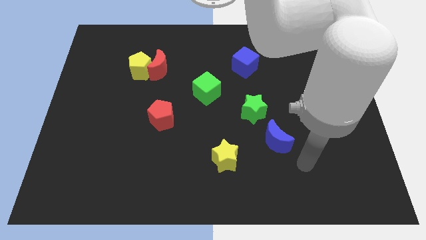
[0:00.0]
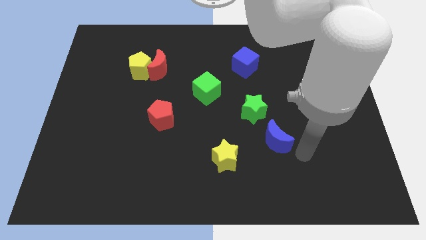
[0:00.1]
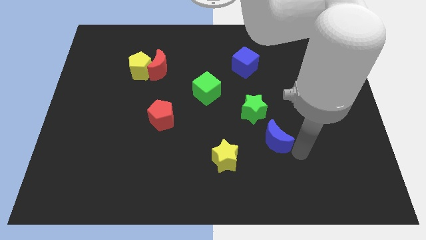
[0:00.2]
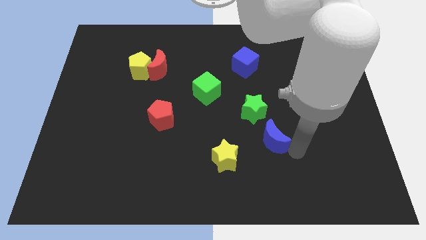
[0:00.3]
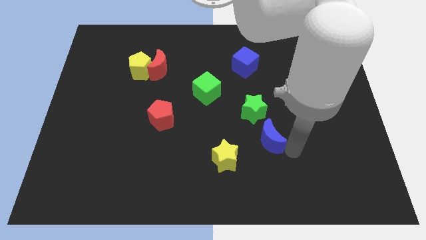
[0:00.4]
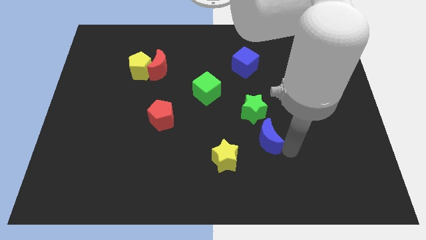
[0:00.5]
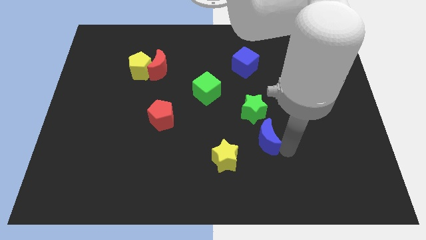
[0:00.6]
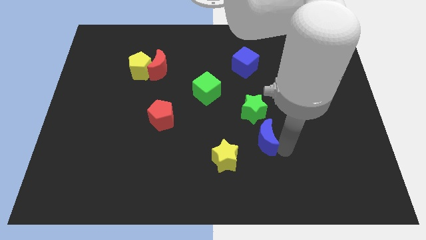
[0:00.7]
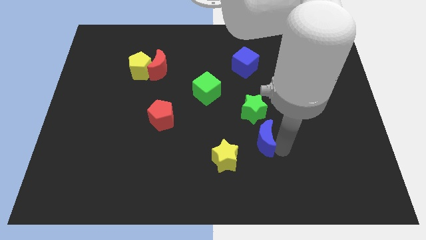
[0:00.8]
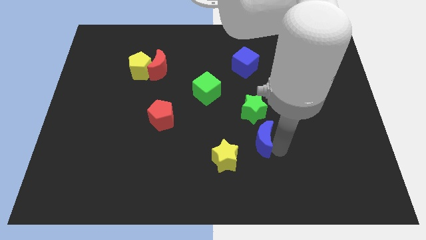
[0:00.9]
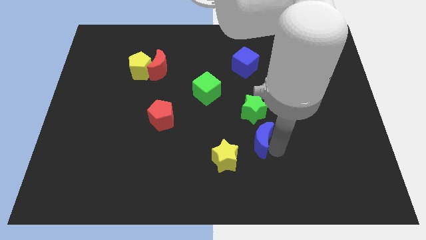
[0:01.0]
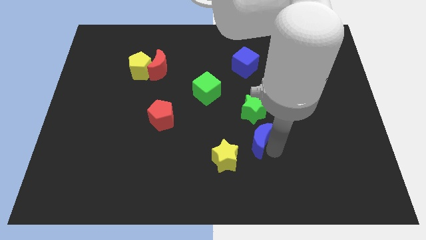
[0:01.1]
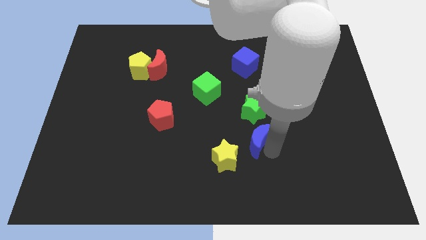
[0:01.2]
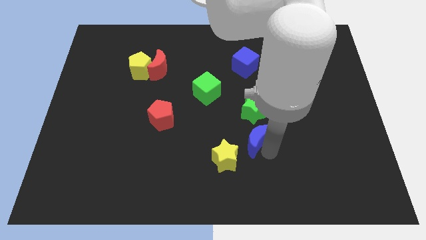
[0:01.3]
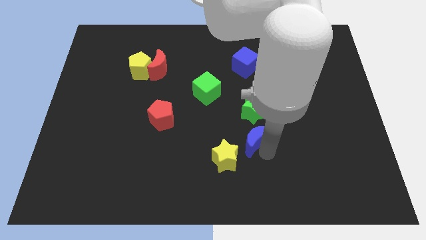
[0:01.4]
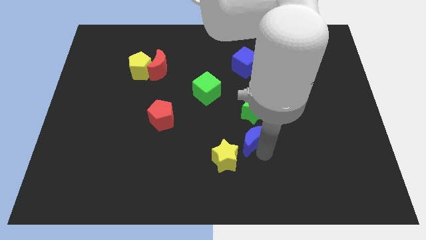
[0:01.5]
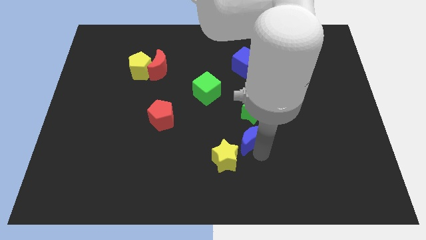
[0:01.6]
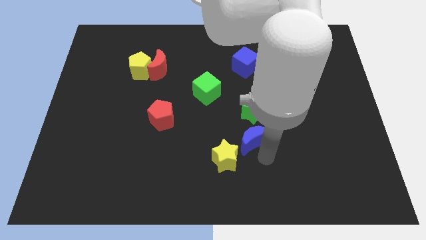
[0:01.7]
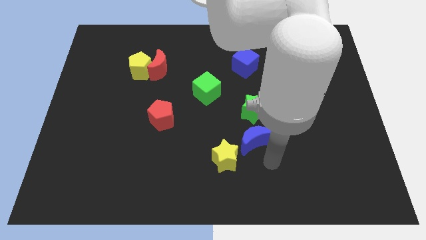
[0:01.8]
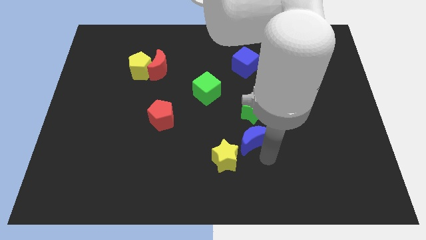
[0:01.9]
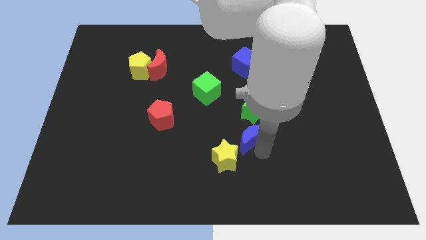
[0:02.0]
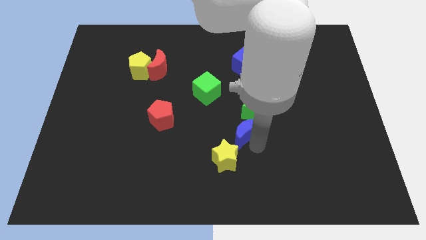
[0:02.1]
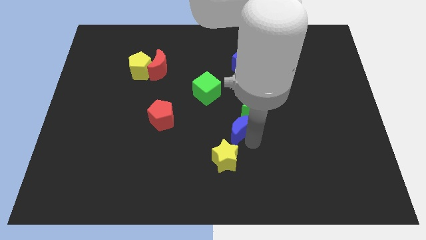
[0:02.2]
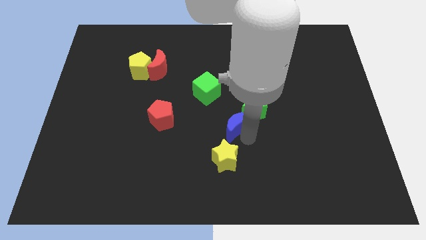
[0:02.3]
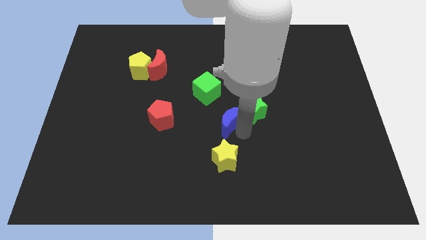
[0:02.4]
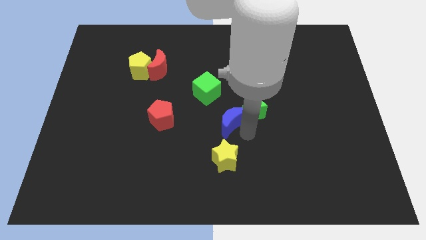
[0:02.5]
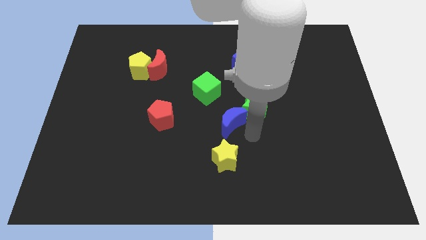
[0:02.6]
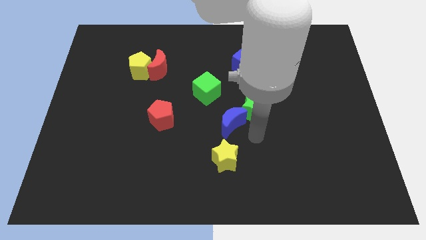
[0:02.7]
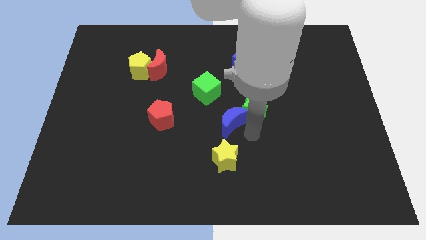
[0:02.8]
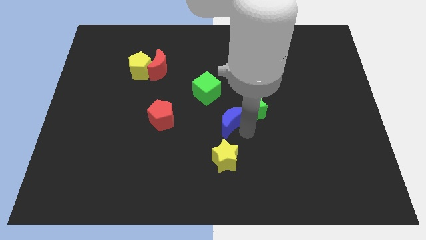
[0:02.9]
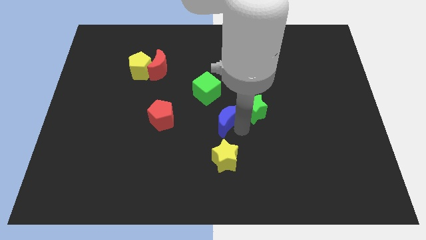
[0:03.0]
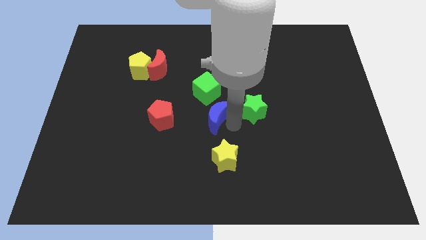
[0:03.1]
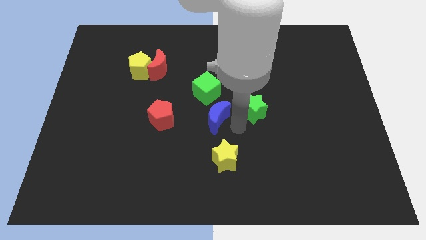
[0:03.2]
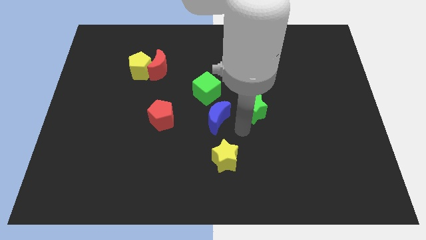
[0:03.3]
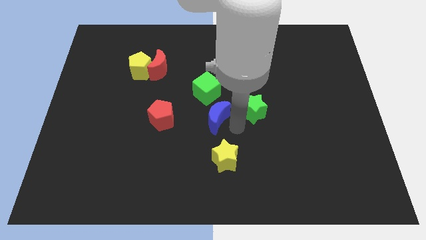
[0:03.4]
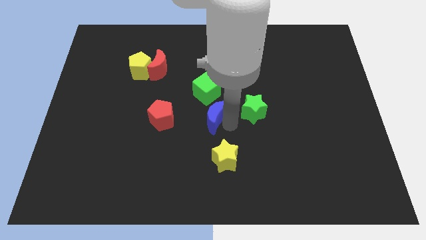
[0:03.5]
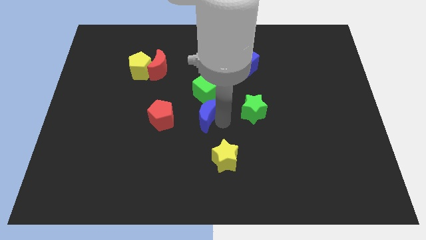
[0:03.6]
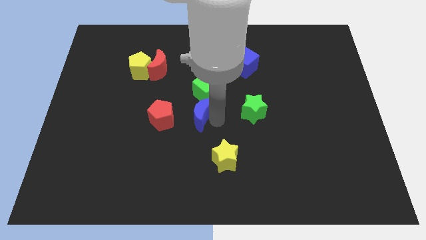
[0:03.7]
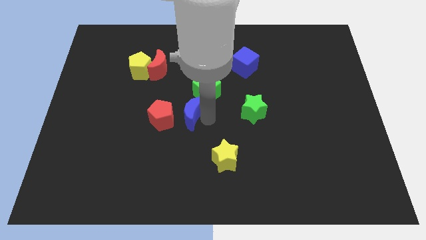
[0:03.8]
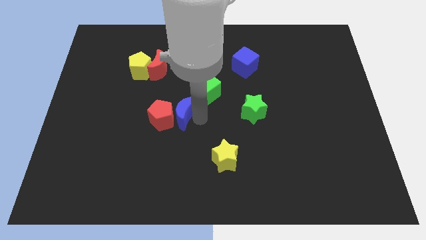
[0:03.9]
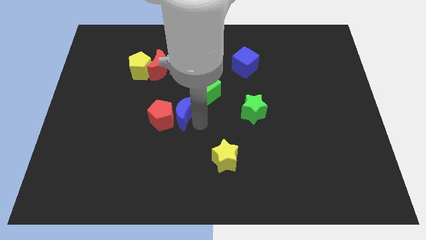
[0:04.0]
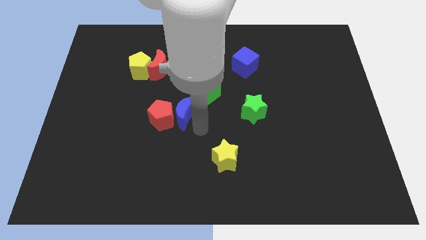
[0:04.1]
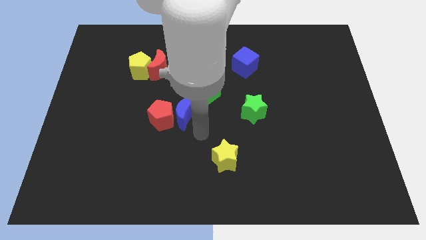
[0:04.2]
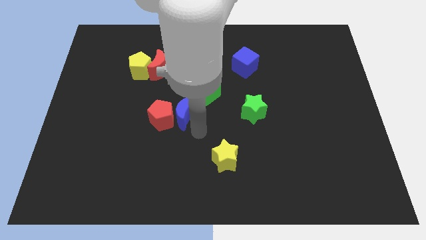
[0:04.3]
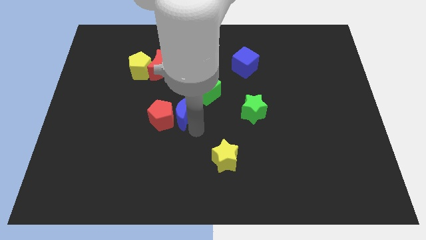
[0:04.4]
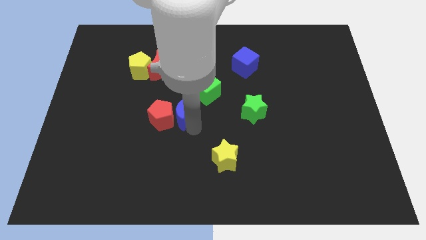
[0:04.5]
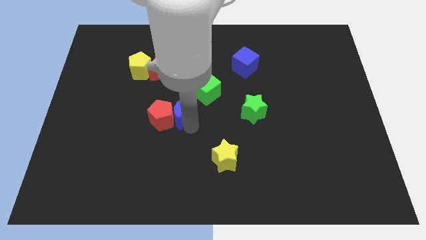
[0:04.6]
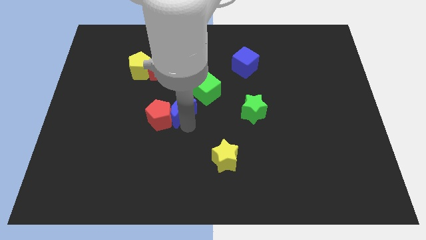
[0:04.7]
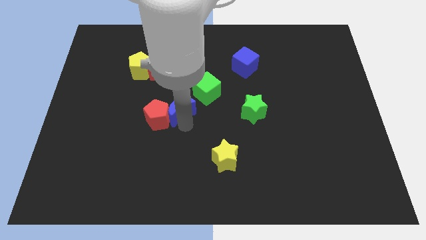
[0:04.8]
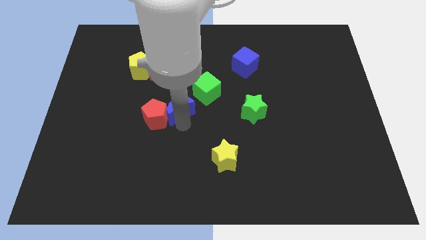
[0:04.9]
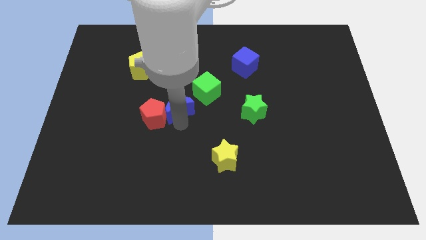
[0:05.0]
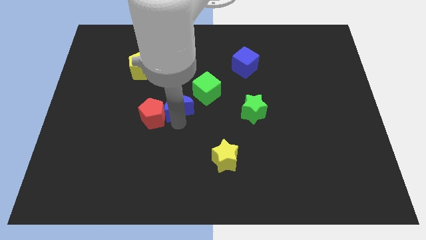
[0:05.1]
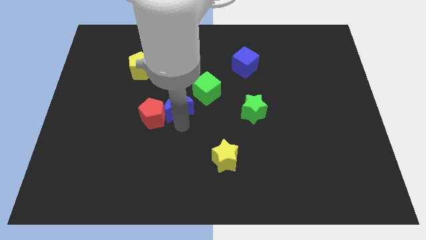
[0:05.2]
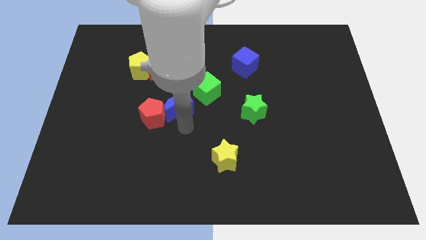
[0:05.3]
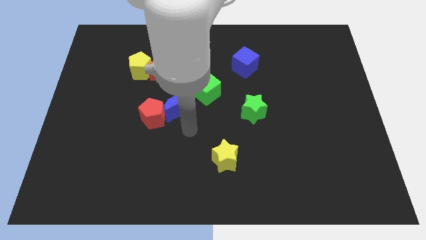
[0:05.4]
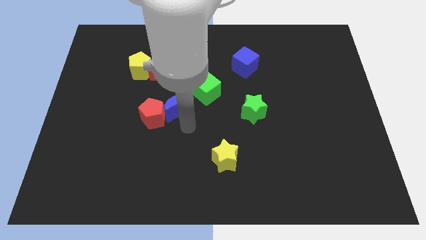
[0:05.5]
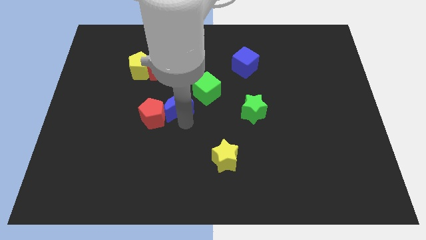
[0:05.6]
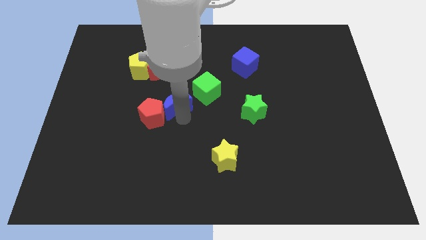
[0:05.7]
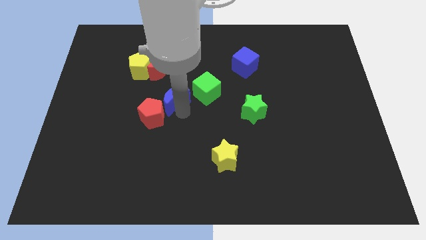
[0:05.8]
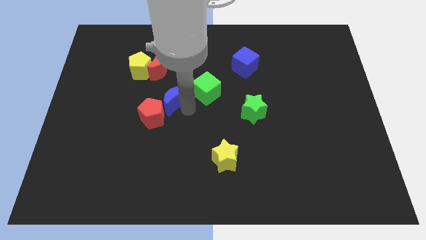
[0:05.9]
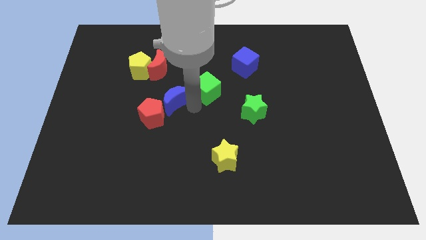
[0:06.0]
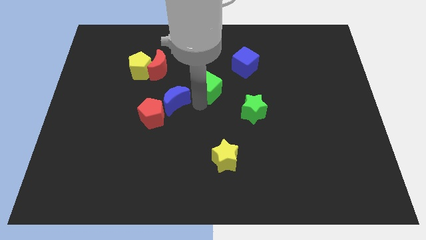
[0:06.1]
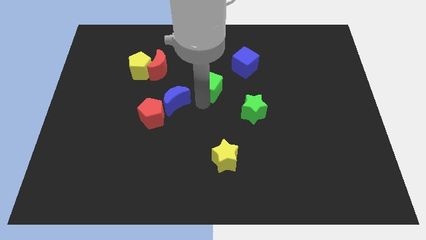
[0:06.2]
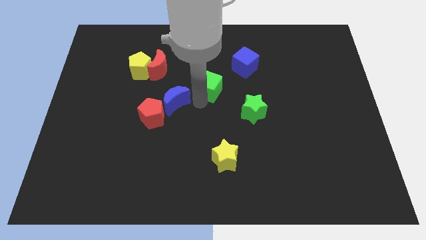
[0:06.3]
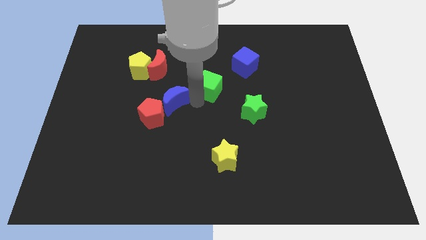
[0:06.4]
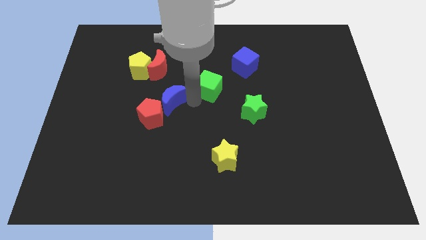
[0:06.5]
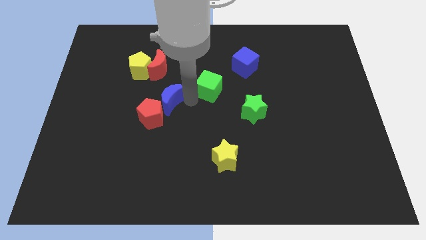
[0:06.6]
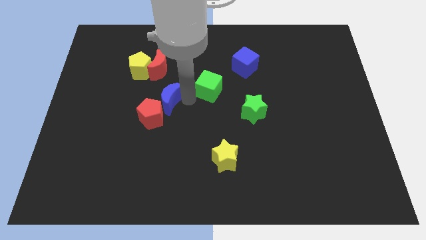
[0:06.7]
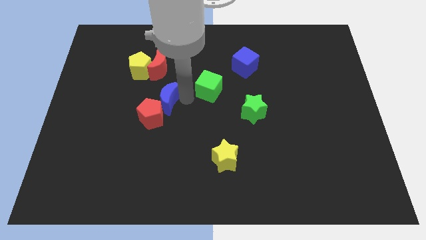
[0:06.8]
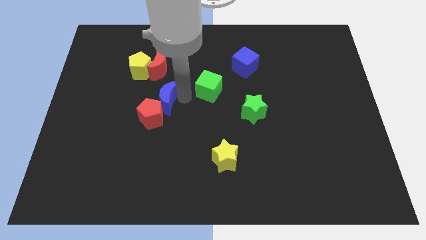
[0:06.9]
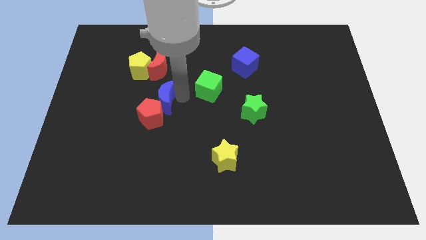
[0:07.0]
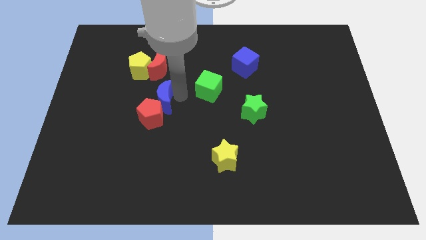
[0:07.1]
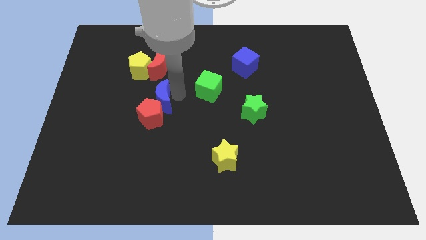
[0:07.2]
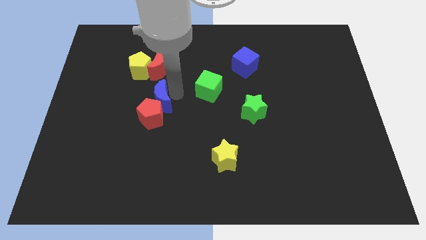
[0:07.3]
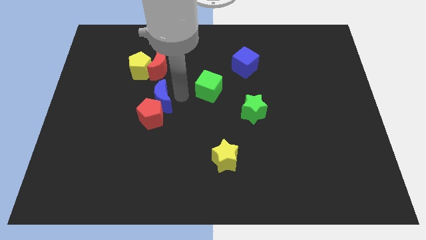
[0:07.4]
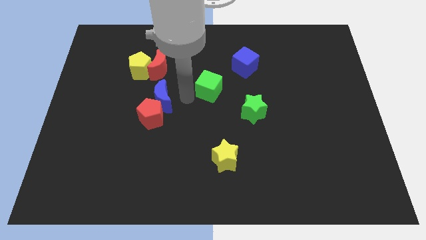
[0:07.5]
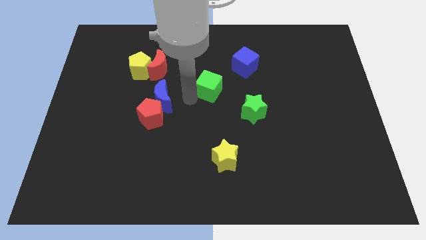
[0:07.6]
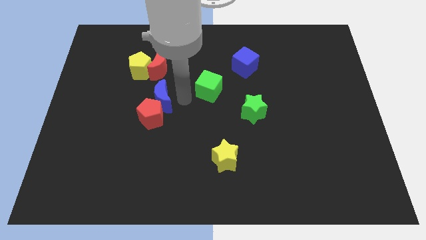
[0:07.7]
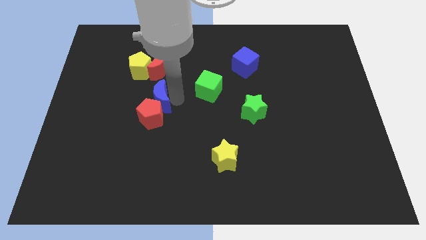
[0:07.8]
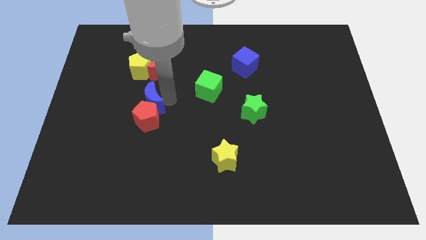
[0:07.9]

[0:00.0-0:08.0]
push the blue moon to the bottom of the yellow pentagon

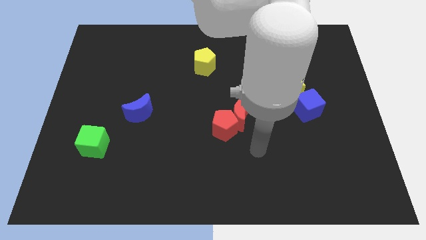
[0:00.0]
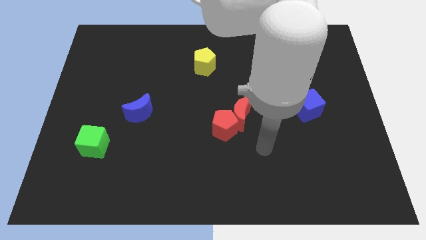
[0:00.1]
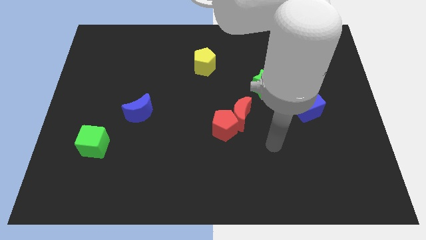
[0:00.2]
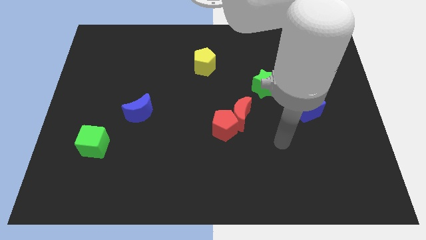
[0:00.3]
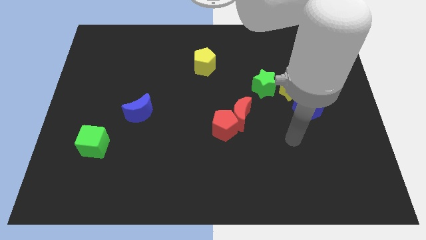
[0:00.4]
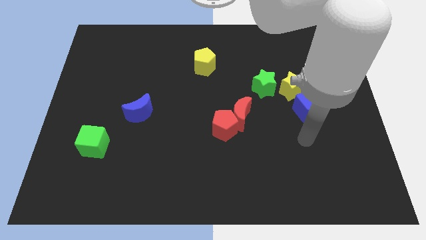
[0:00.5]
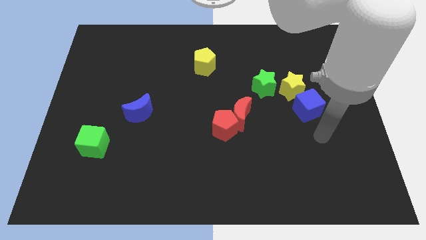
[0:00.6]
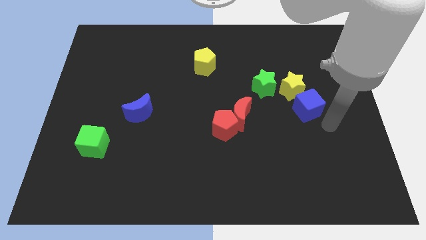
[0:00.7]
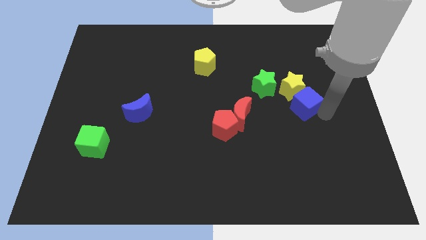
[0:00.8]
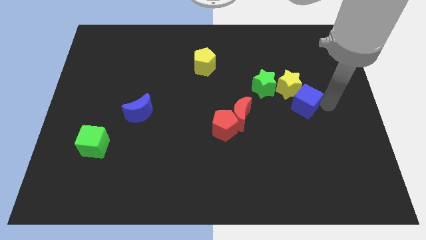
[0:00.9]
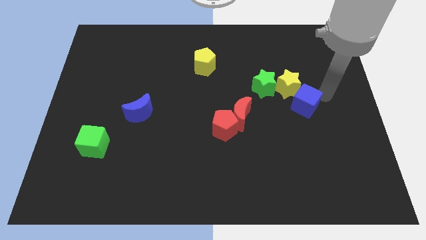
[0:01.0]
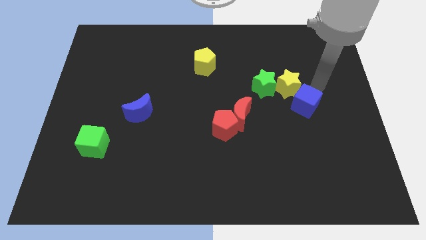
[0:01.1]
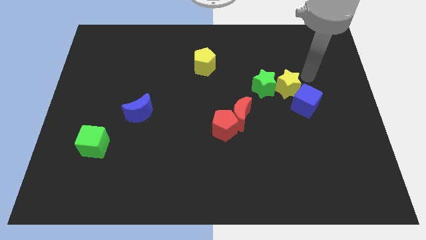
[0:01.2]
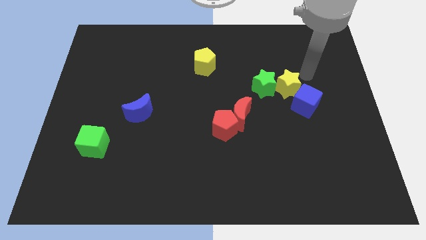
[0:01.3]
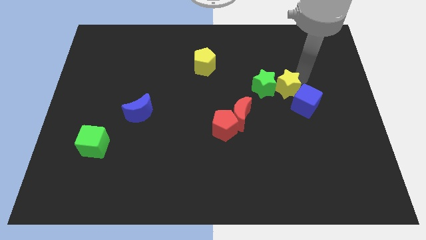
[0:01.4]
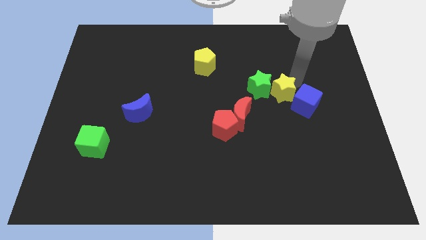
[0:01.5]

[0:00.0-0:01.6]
slide the yellow star to the left of the blue cube
